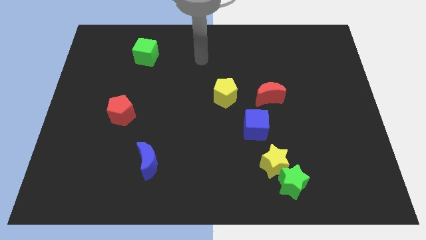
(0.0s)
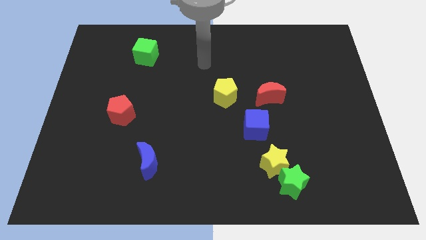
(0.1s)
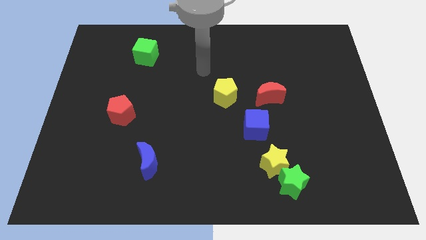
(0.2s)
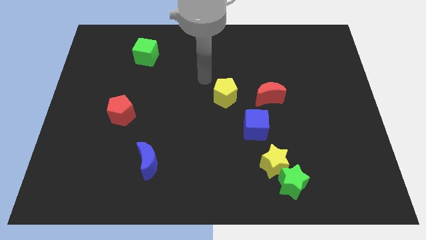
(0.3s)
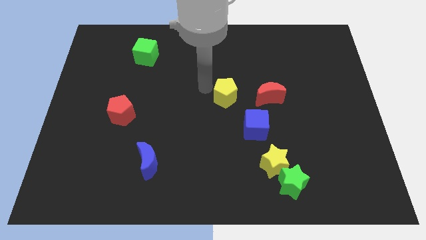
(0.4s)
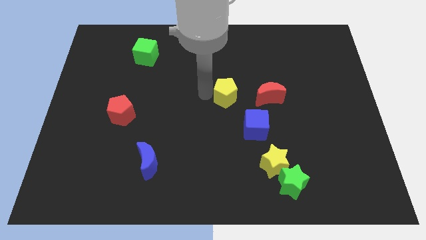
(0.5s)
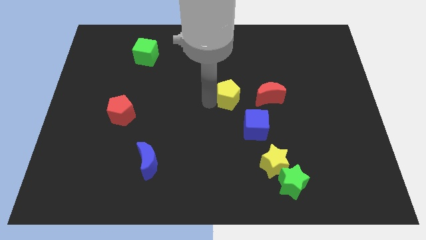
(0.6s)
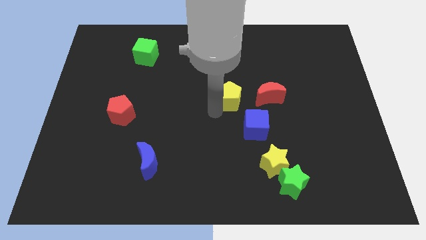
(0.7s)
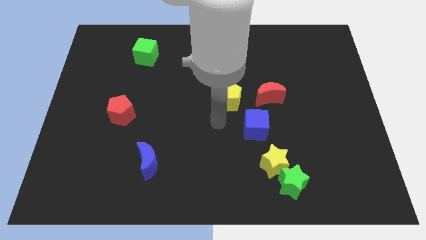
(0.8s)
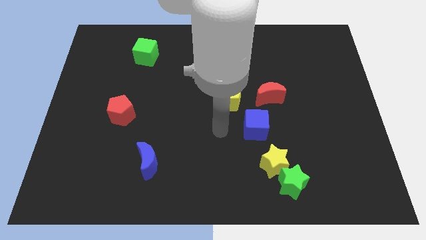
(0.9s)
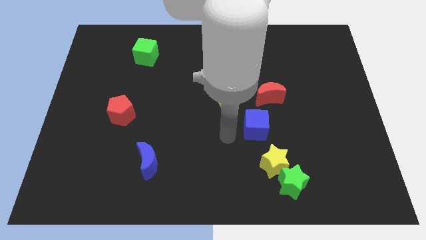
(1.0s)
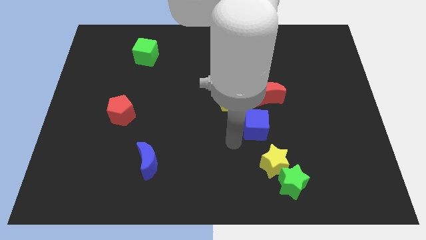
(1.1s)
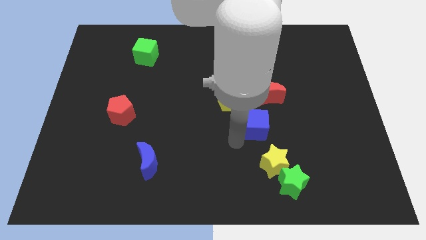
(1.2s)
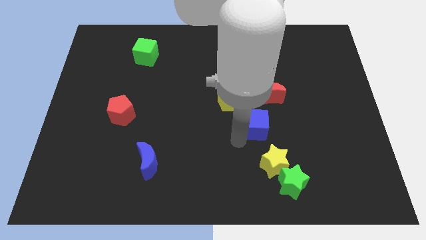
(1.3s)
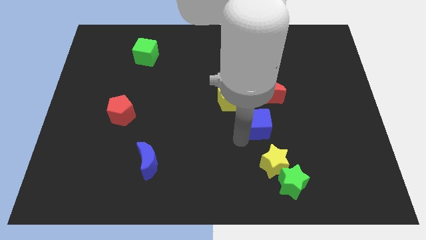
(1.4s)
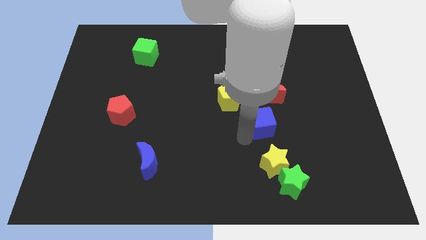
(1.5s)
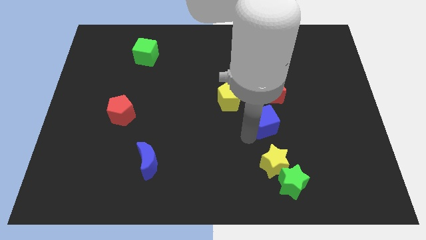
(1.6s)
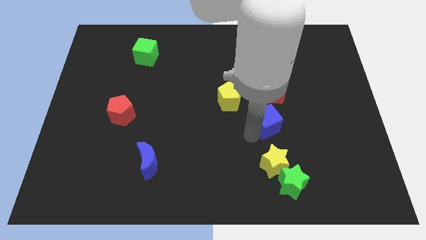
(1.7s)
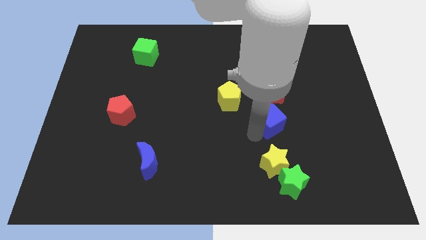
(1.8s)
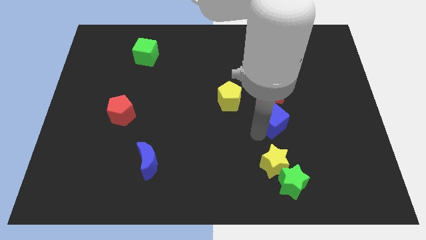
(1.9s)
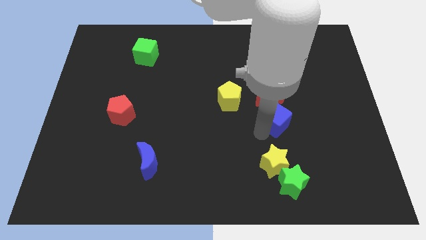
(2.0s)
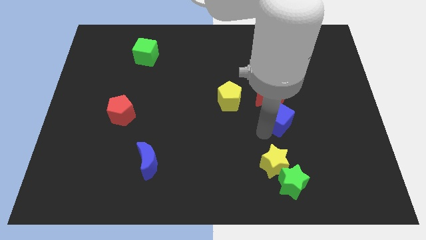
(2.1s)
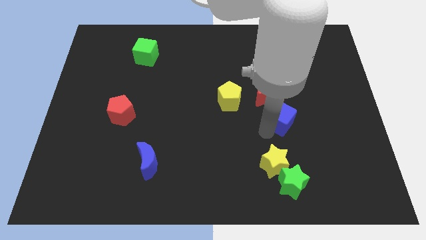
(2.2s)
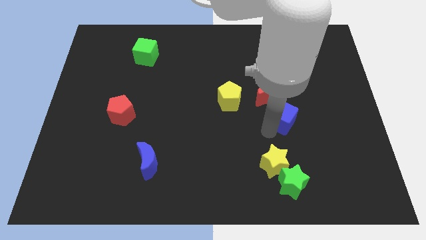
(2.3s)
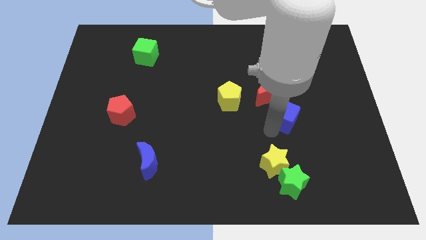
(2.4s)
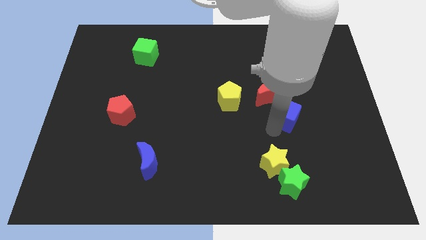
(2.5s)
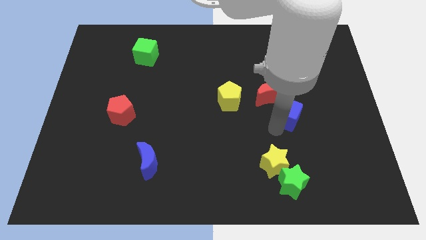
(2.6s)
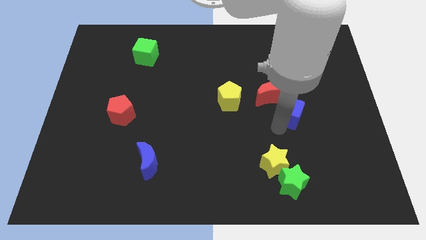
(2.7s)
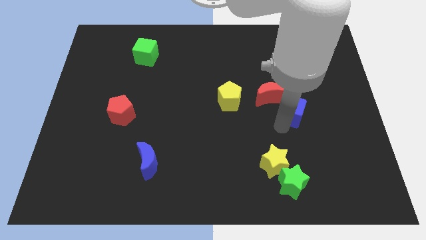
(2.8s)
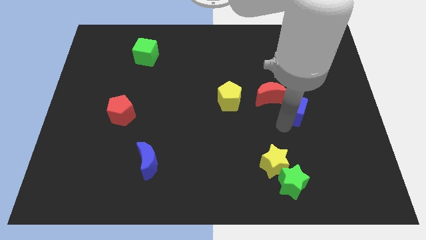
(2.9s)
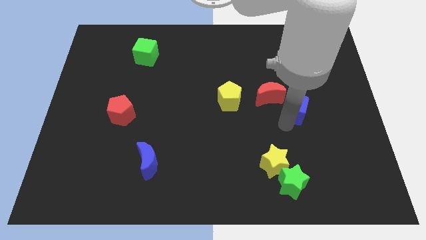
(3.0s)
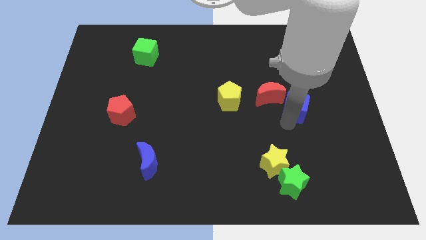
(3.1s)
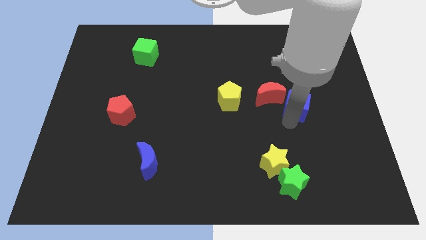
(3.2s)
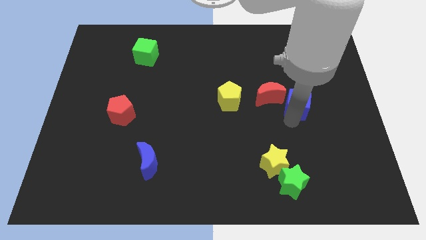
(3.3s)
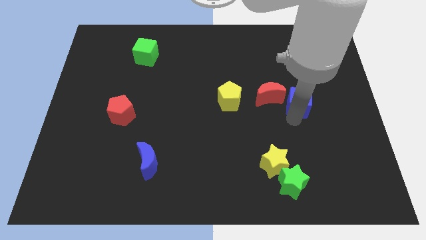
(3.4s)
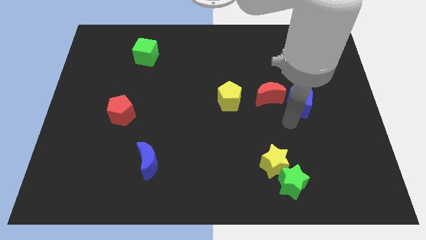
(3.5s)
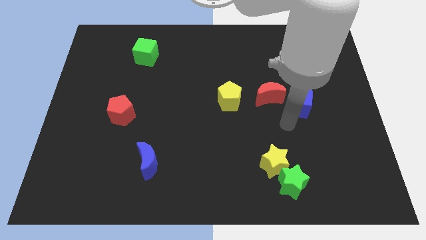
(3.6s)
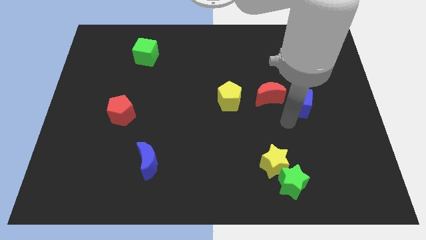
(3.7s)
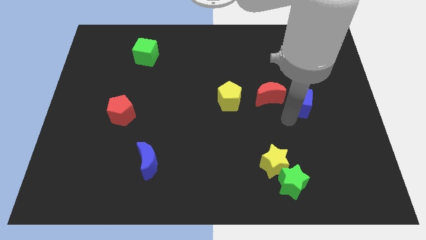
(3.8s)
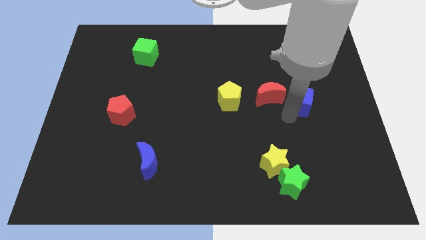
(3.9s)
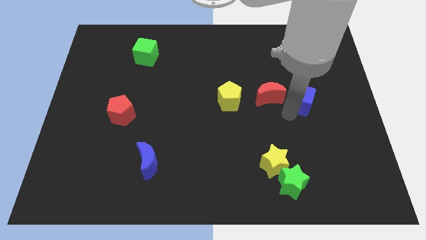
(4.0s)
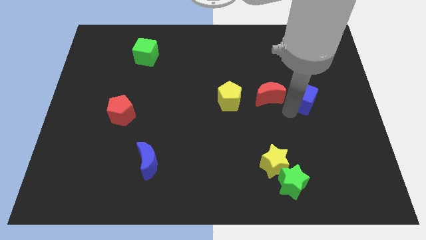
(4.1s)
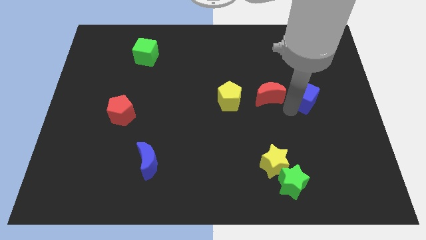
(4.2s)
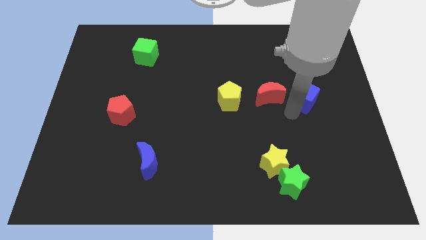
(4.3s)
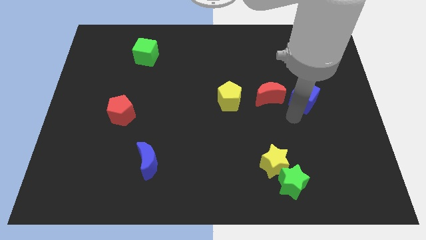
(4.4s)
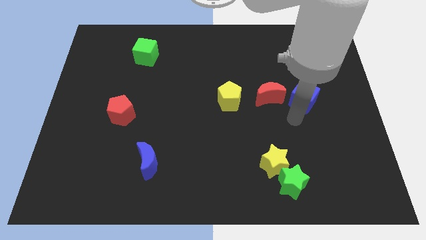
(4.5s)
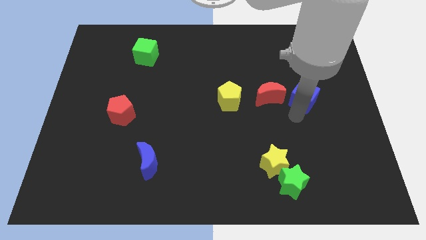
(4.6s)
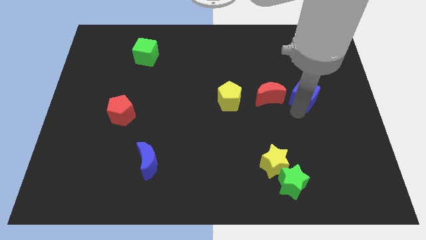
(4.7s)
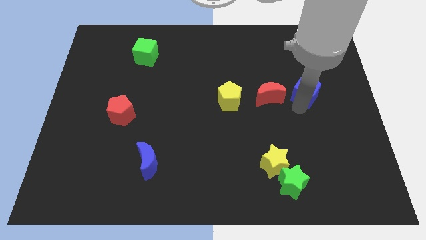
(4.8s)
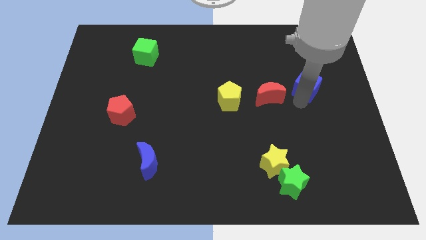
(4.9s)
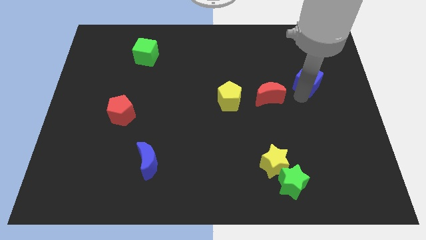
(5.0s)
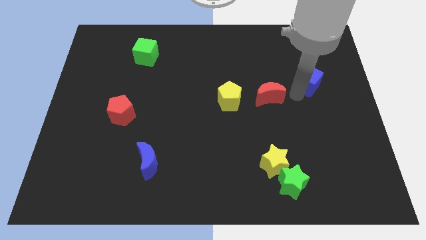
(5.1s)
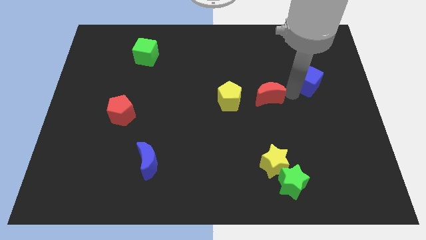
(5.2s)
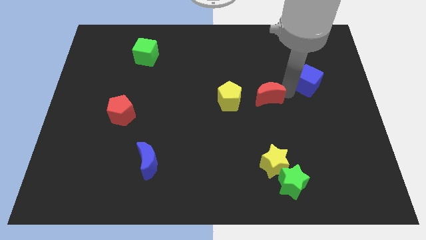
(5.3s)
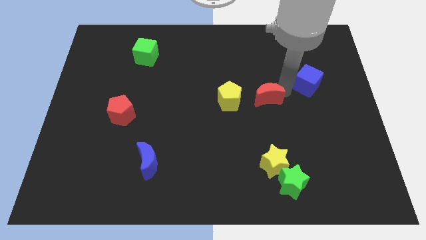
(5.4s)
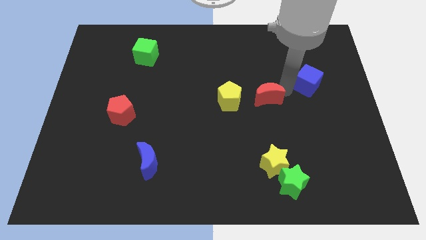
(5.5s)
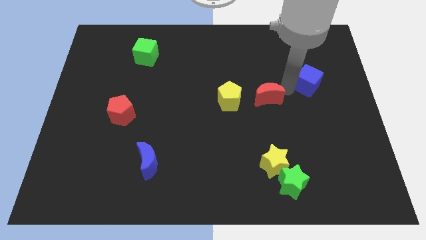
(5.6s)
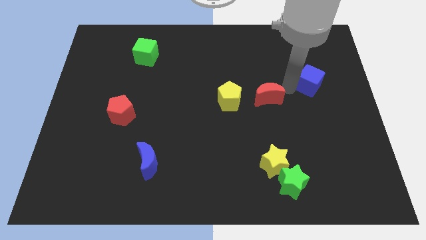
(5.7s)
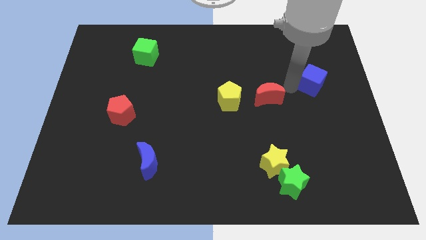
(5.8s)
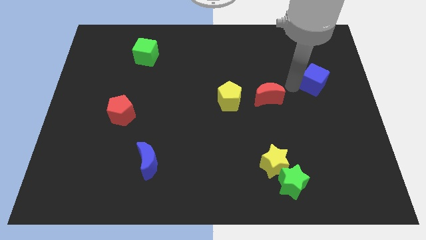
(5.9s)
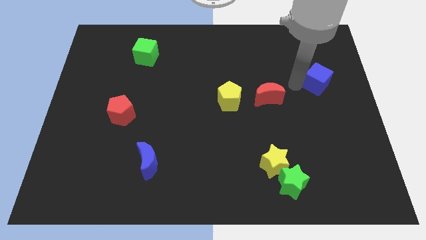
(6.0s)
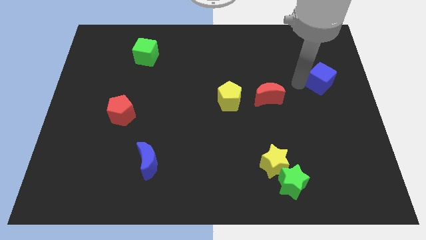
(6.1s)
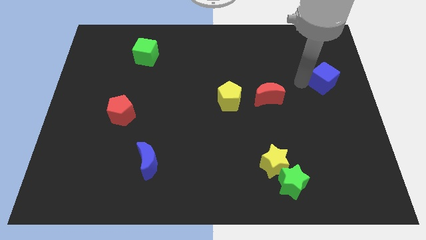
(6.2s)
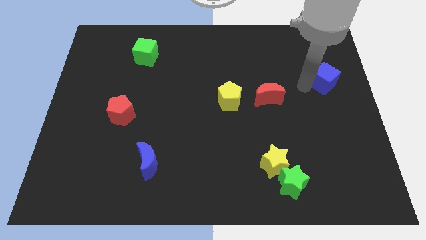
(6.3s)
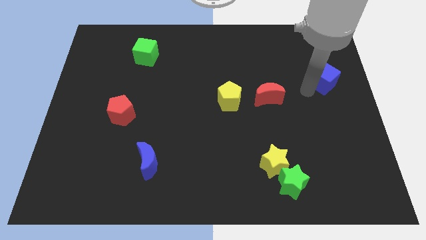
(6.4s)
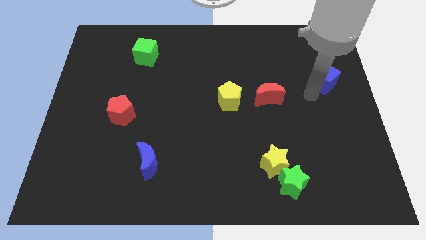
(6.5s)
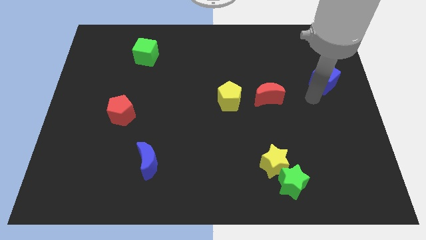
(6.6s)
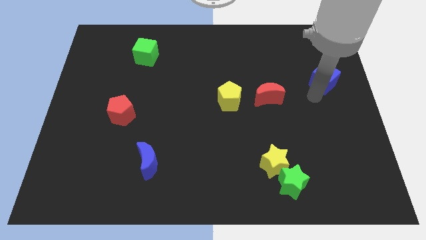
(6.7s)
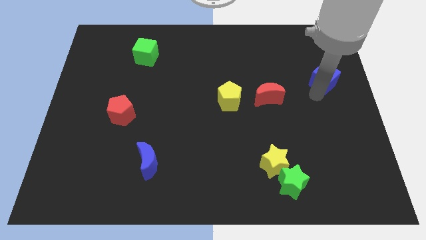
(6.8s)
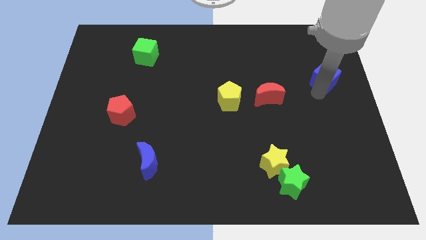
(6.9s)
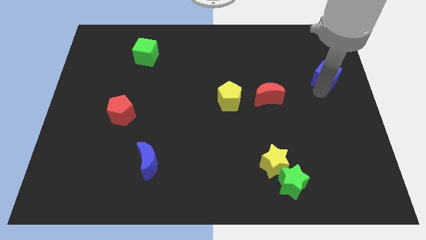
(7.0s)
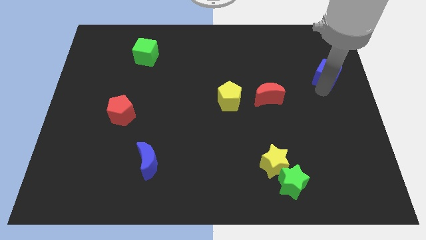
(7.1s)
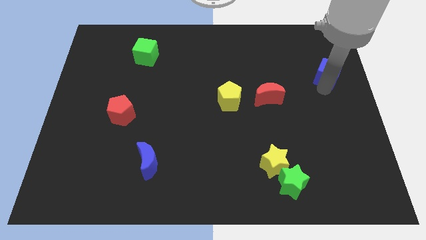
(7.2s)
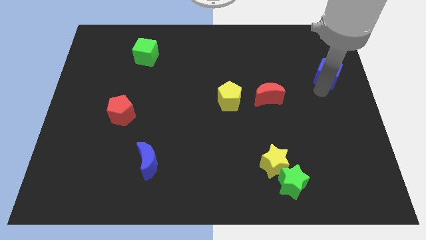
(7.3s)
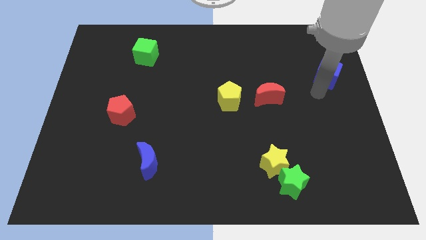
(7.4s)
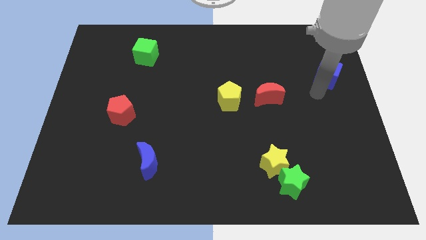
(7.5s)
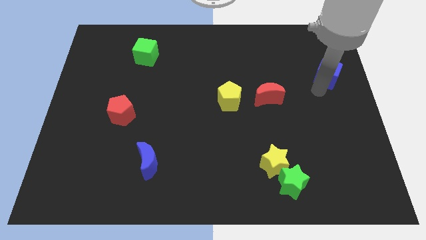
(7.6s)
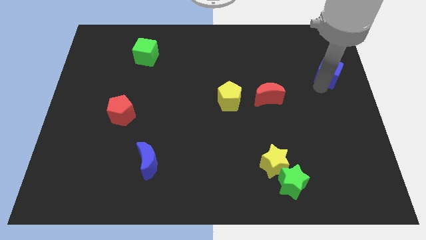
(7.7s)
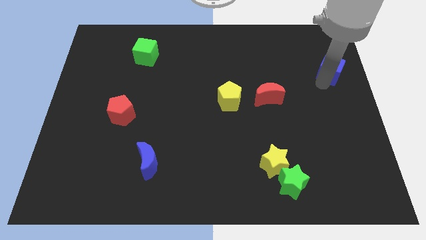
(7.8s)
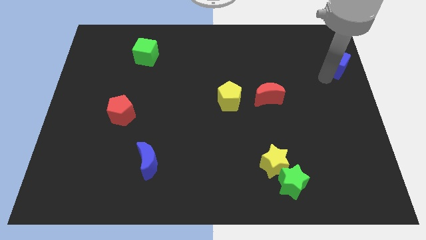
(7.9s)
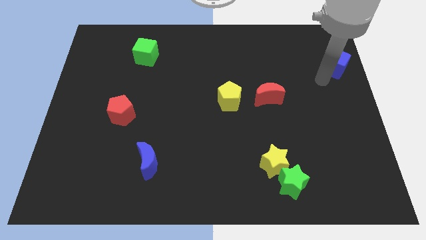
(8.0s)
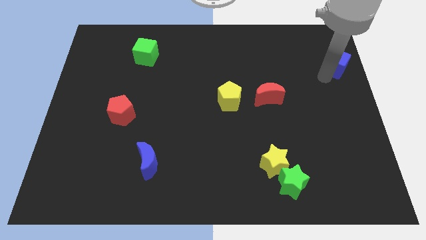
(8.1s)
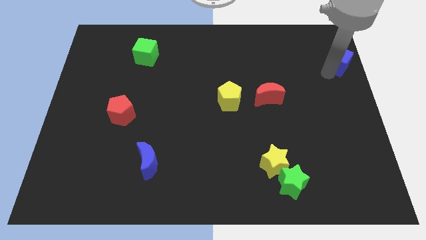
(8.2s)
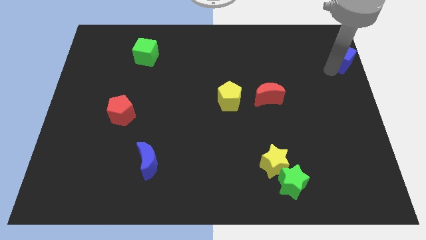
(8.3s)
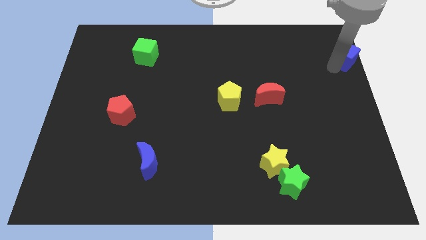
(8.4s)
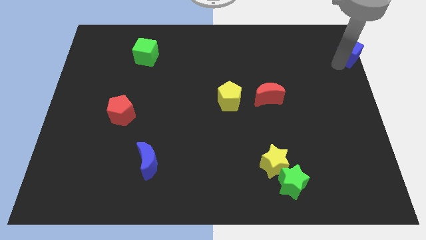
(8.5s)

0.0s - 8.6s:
put the blue cube to the top right
